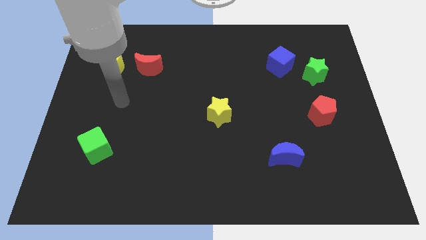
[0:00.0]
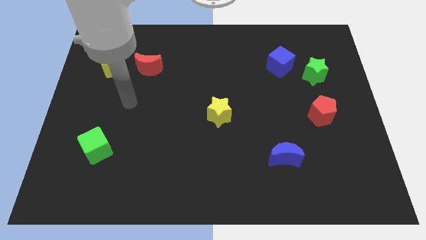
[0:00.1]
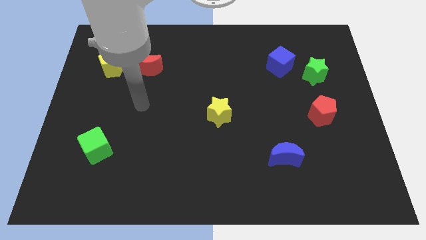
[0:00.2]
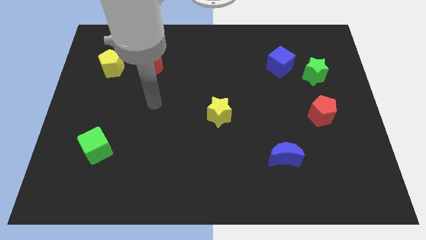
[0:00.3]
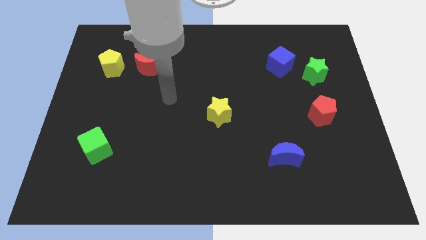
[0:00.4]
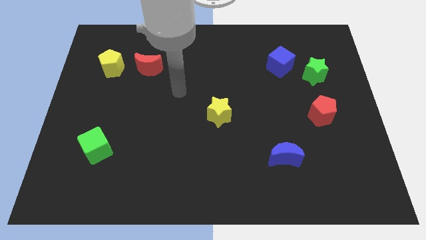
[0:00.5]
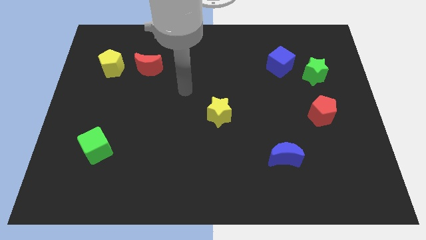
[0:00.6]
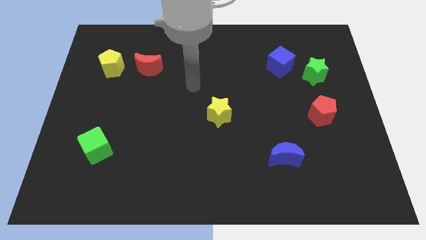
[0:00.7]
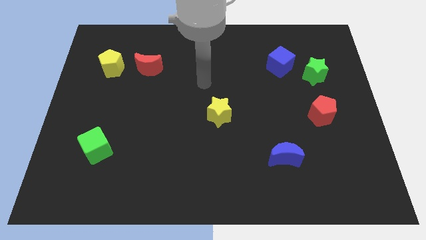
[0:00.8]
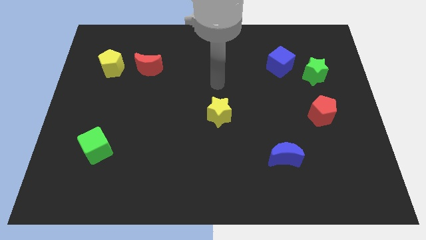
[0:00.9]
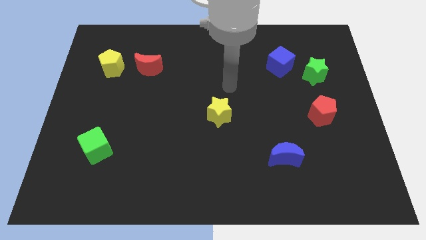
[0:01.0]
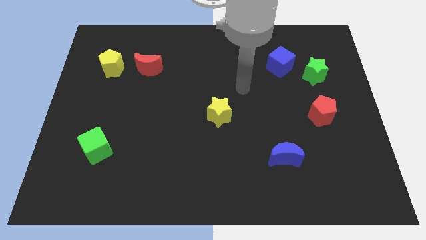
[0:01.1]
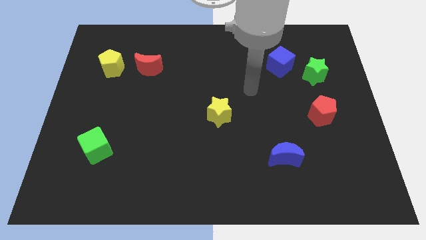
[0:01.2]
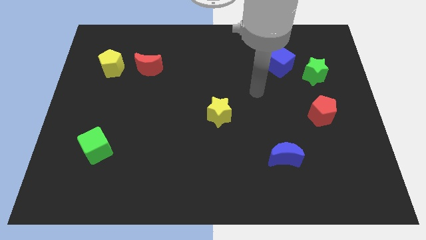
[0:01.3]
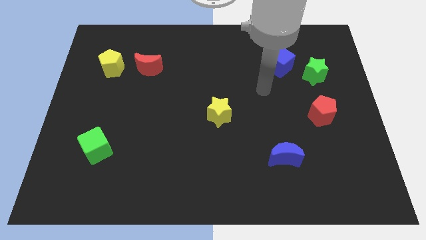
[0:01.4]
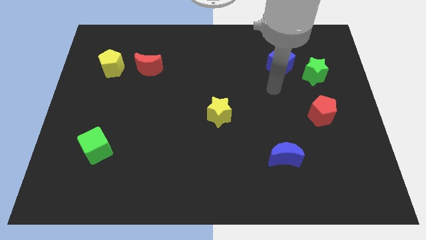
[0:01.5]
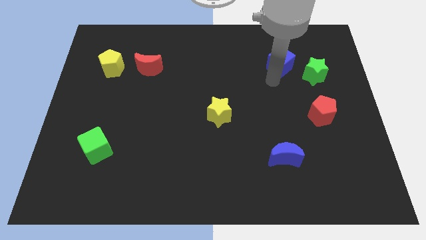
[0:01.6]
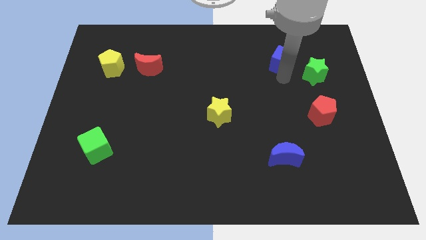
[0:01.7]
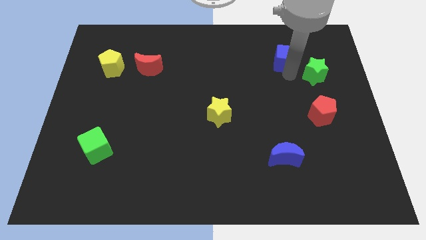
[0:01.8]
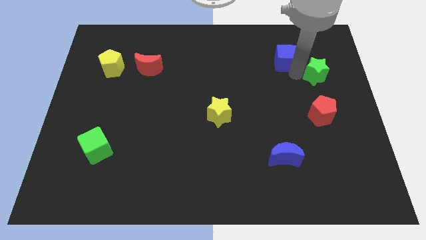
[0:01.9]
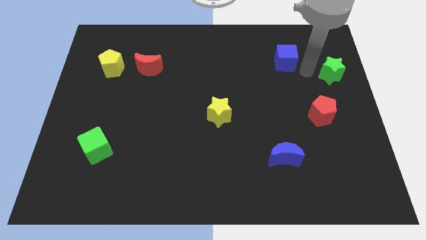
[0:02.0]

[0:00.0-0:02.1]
pull the blue cube apart from the green star

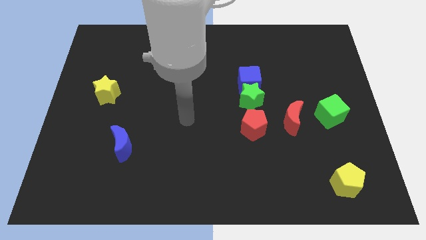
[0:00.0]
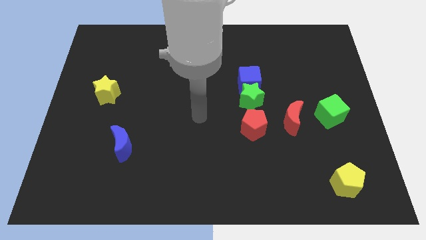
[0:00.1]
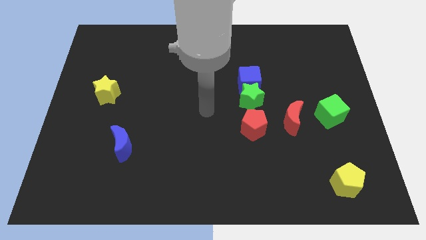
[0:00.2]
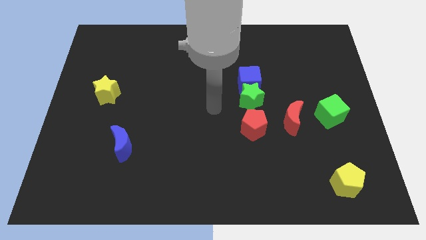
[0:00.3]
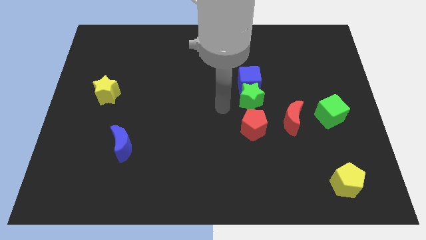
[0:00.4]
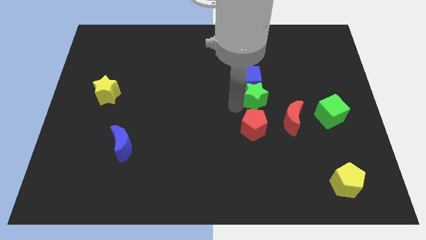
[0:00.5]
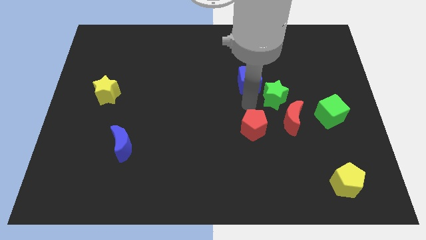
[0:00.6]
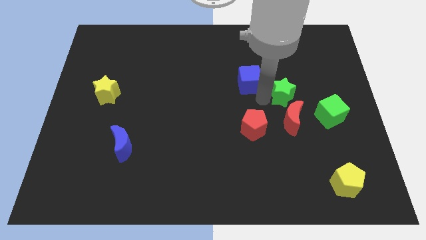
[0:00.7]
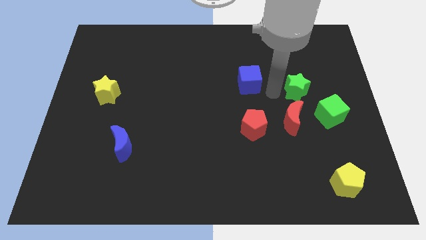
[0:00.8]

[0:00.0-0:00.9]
move the blue cube away from the green star

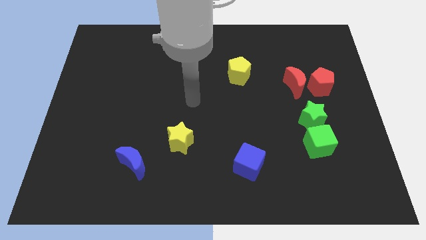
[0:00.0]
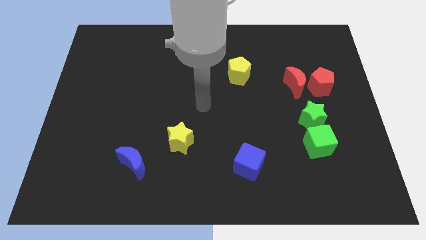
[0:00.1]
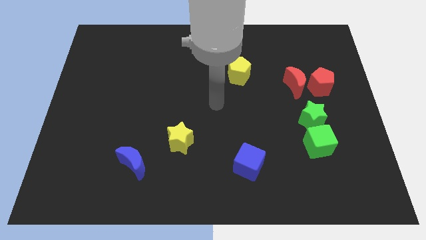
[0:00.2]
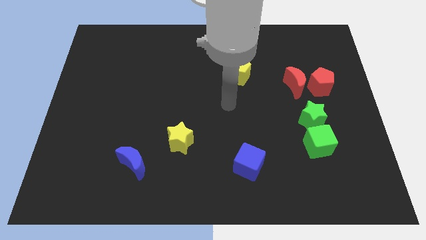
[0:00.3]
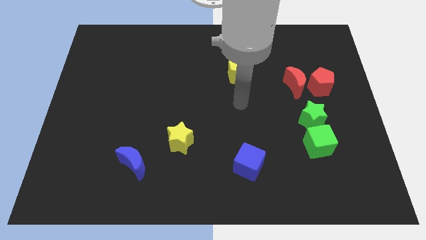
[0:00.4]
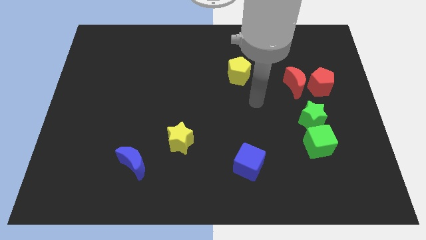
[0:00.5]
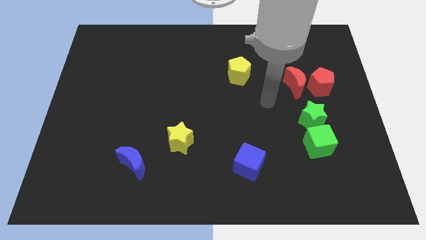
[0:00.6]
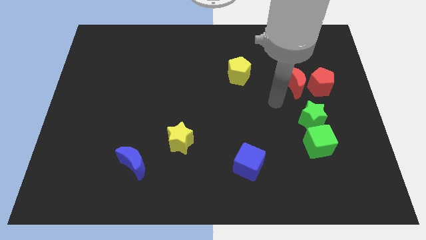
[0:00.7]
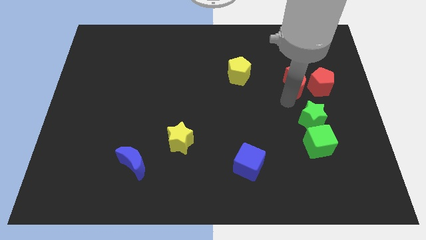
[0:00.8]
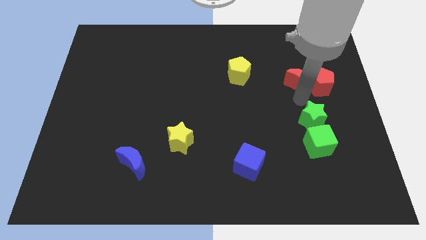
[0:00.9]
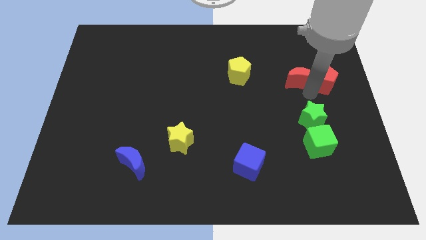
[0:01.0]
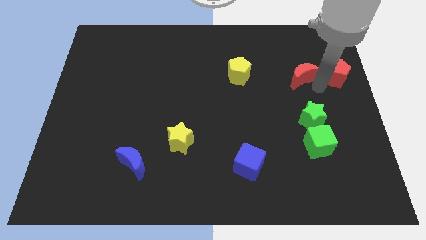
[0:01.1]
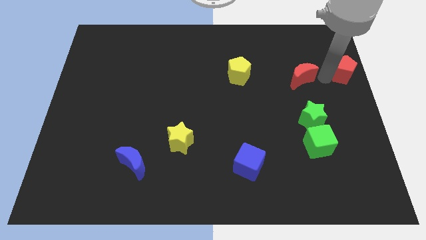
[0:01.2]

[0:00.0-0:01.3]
move the red moon away from the red pentagon

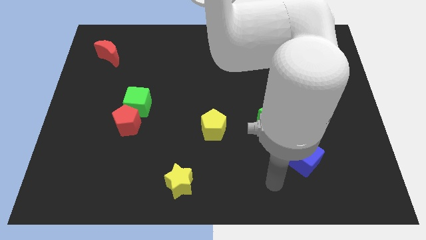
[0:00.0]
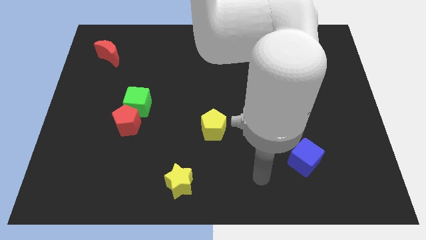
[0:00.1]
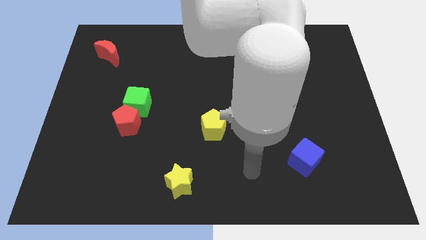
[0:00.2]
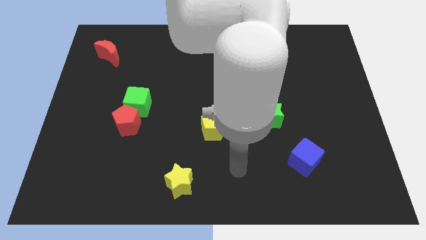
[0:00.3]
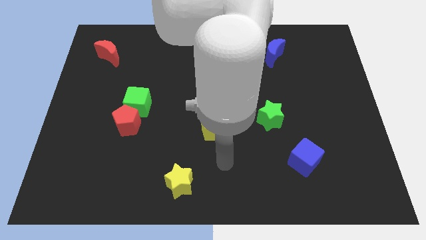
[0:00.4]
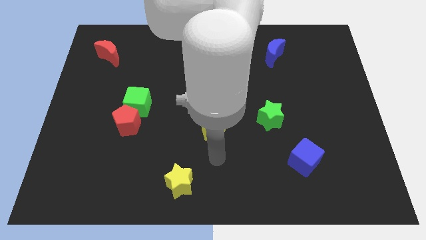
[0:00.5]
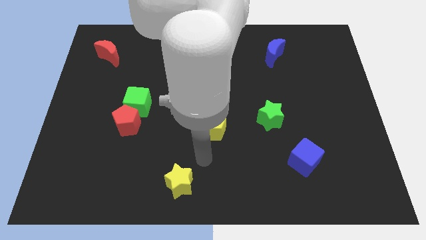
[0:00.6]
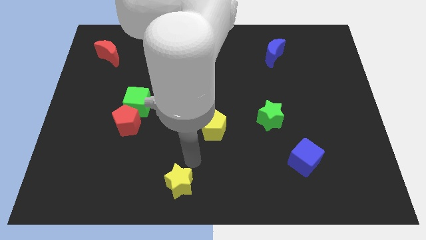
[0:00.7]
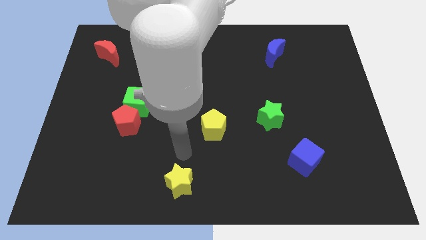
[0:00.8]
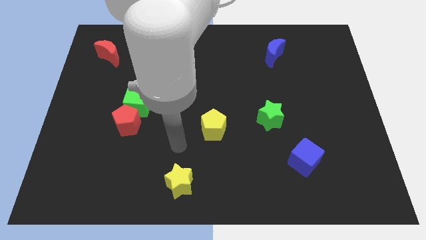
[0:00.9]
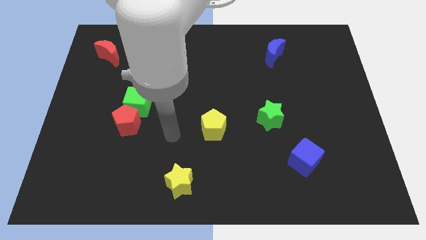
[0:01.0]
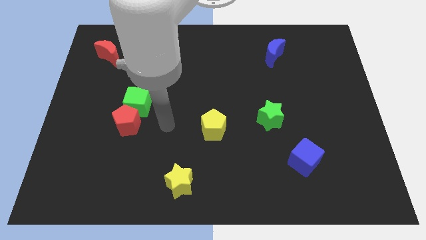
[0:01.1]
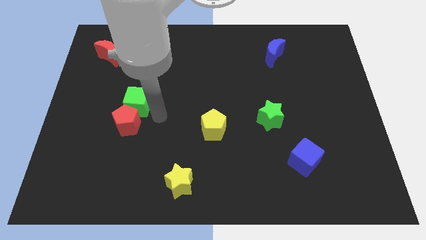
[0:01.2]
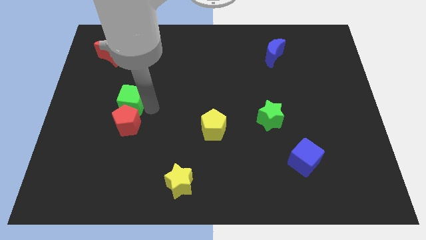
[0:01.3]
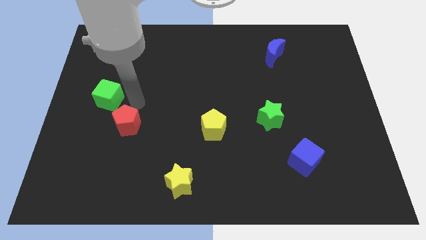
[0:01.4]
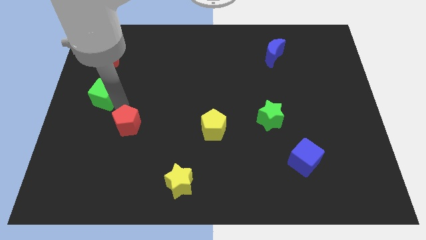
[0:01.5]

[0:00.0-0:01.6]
move the red pentagon away from the green cube

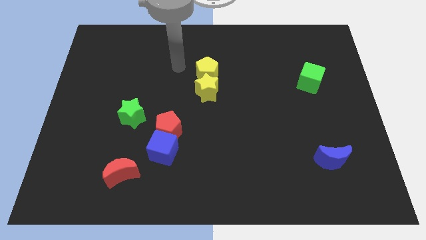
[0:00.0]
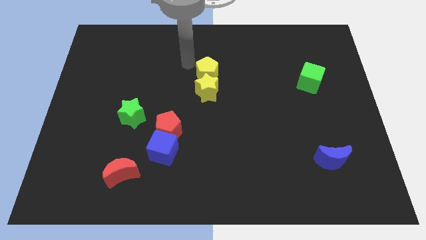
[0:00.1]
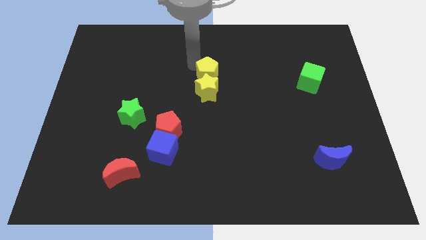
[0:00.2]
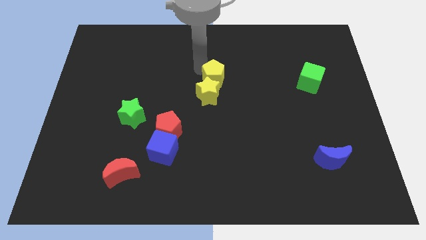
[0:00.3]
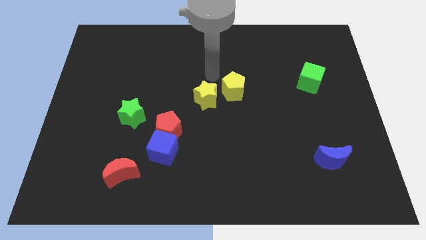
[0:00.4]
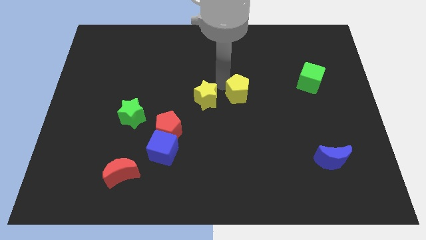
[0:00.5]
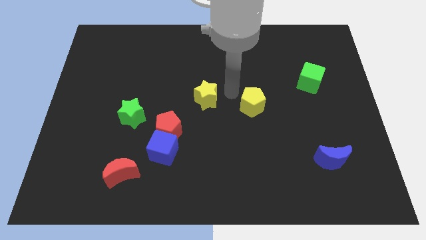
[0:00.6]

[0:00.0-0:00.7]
separate the yellow star from the yellow pentagon

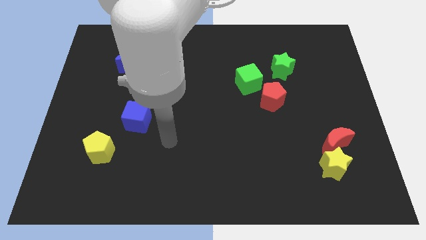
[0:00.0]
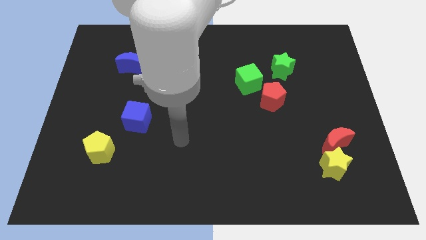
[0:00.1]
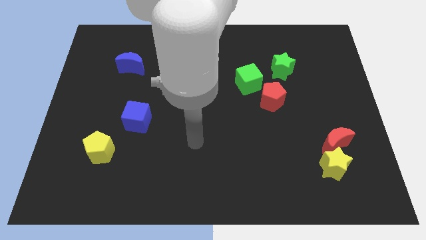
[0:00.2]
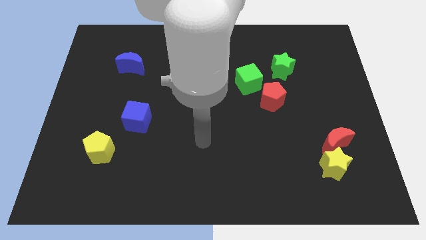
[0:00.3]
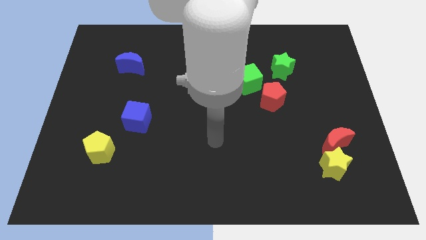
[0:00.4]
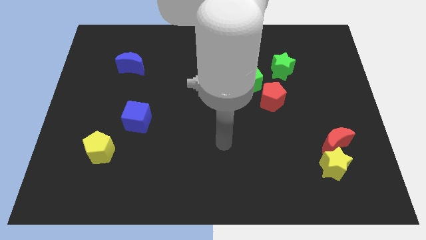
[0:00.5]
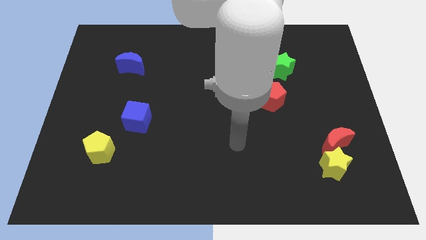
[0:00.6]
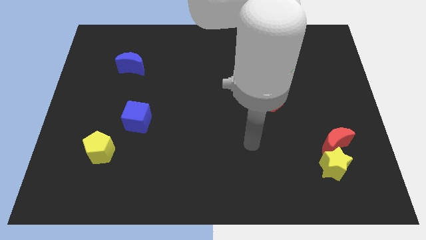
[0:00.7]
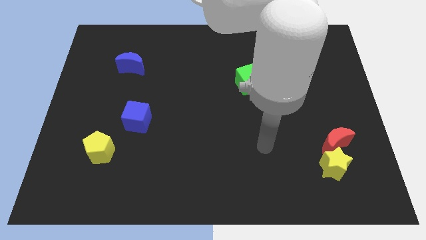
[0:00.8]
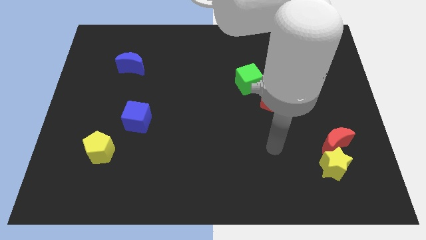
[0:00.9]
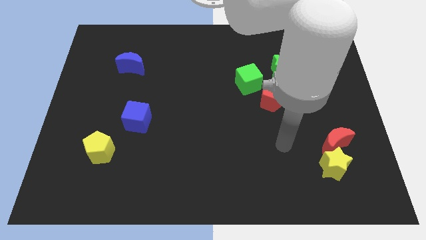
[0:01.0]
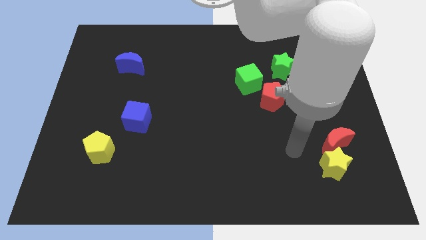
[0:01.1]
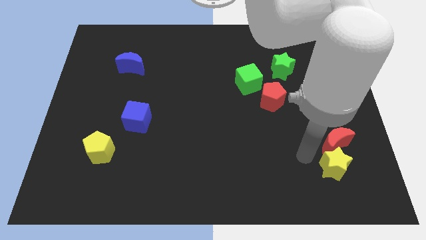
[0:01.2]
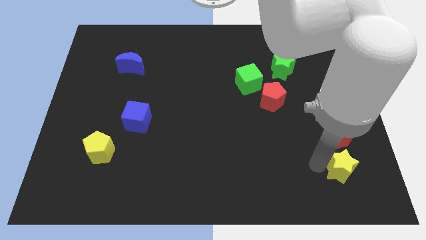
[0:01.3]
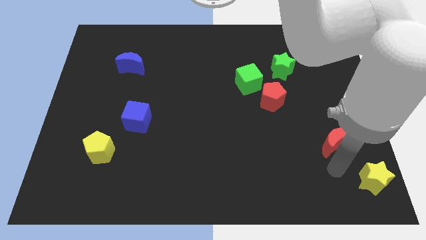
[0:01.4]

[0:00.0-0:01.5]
separate the red moon from the yellow star

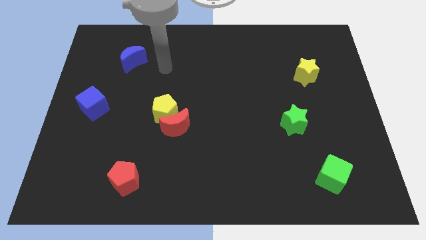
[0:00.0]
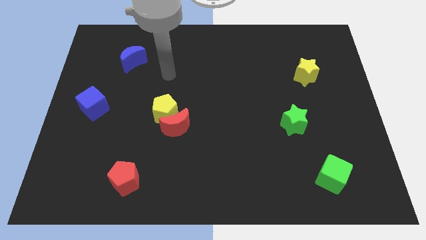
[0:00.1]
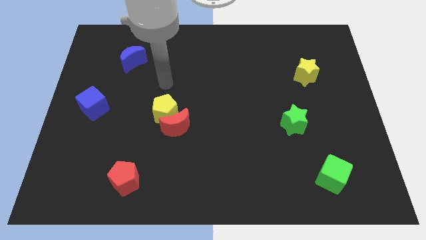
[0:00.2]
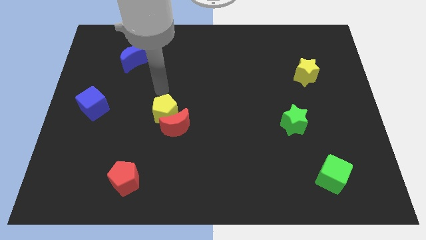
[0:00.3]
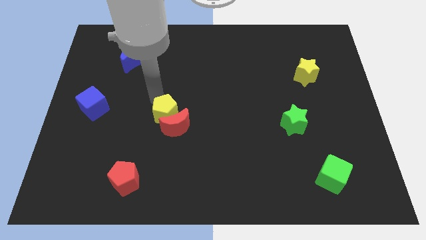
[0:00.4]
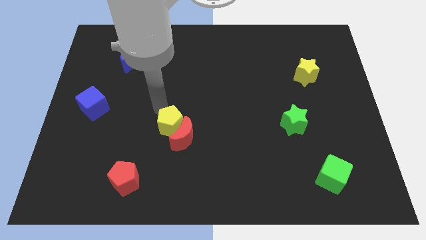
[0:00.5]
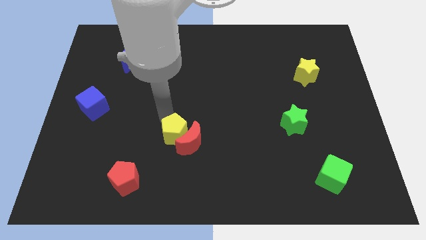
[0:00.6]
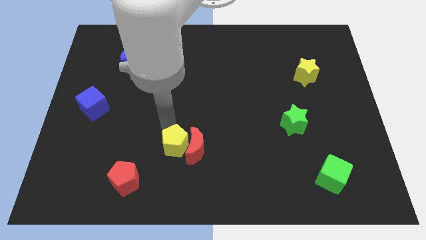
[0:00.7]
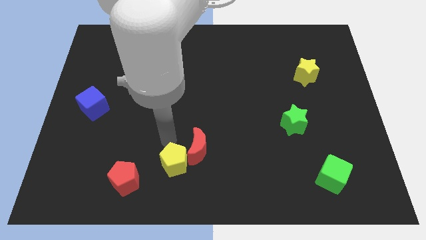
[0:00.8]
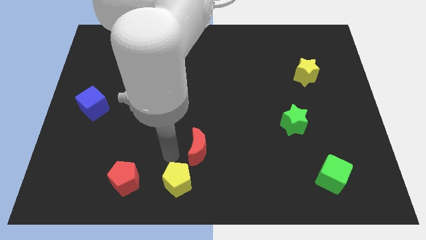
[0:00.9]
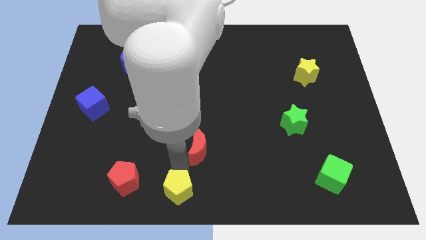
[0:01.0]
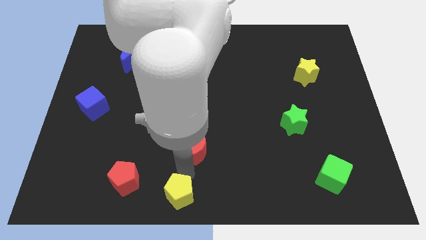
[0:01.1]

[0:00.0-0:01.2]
pull the red moon apart from the yellow pentagon

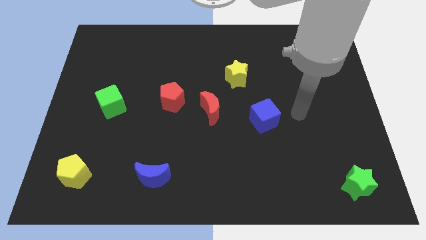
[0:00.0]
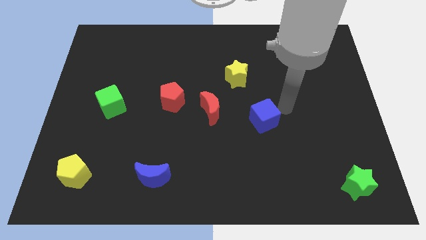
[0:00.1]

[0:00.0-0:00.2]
separate the red moon from the red pentagon
